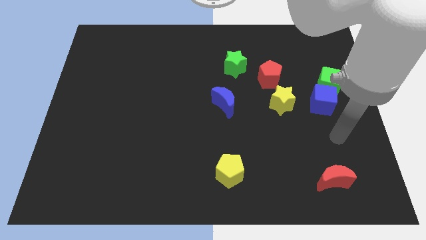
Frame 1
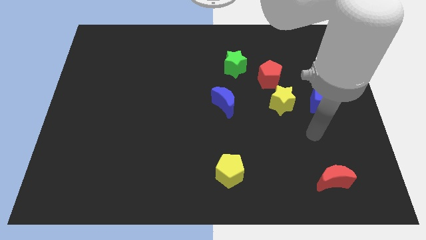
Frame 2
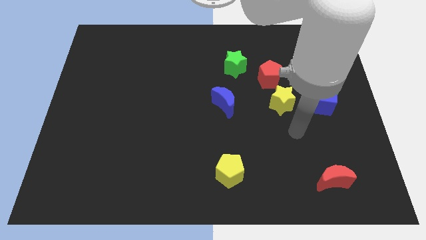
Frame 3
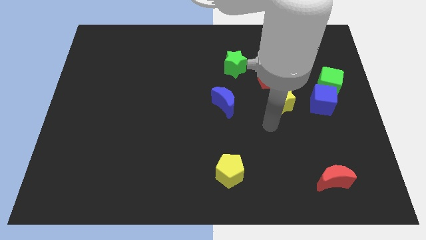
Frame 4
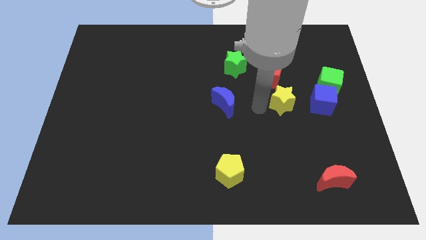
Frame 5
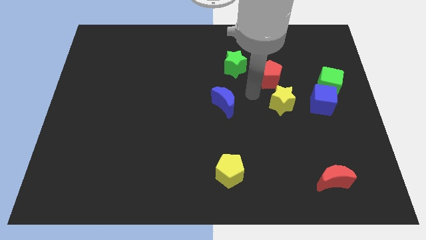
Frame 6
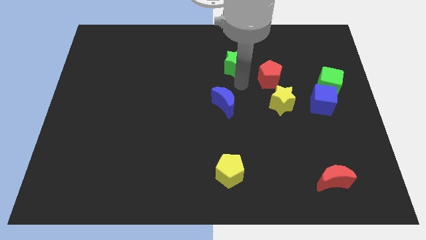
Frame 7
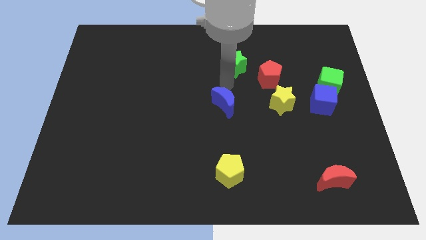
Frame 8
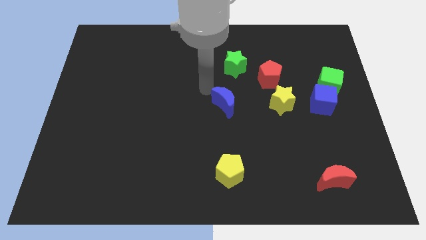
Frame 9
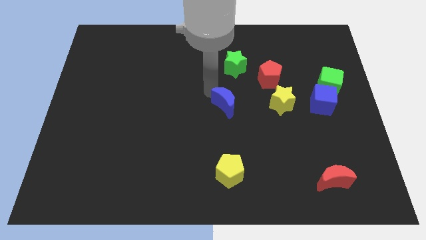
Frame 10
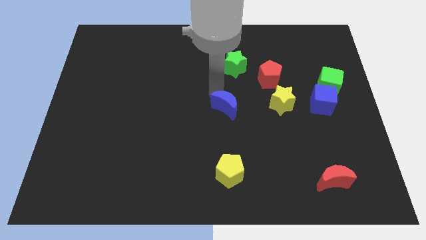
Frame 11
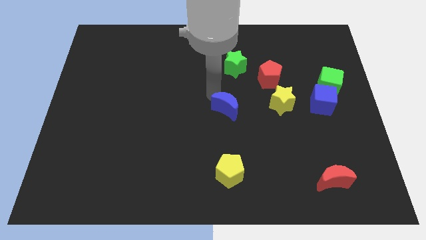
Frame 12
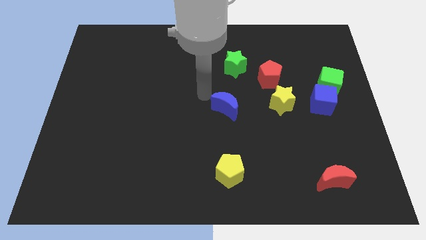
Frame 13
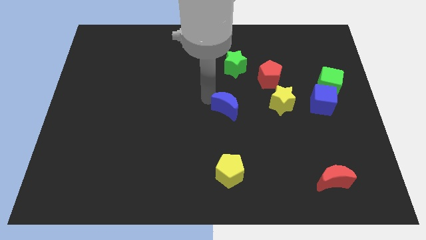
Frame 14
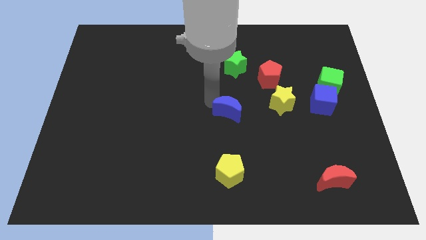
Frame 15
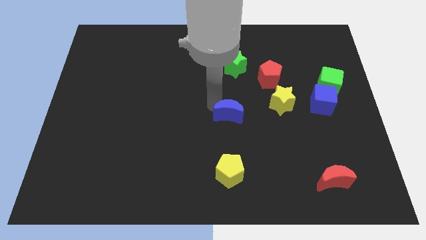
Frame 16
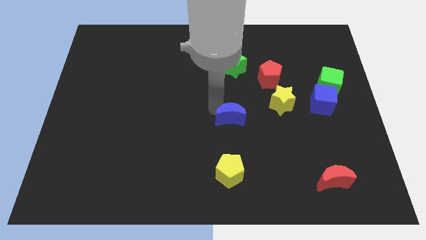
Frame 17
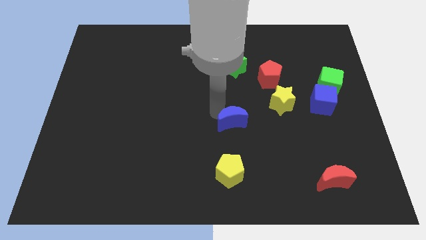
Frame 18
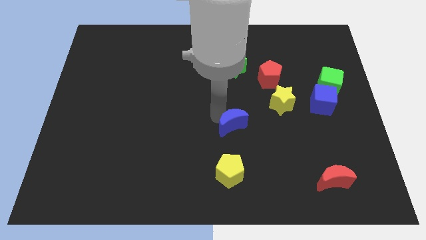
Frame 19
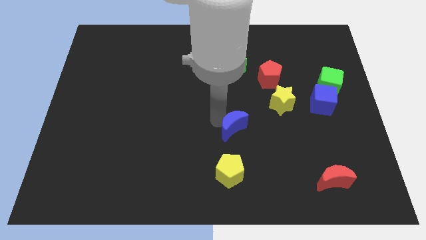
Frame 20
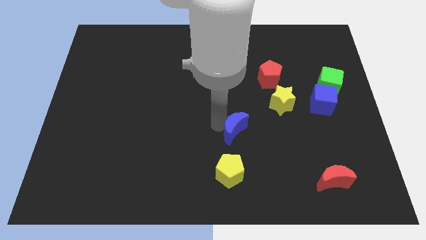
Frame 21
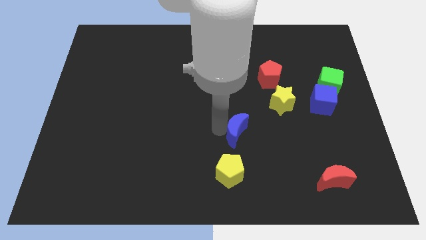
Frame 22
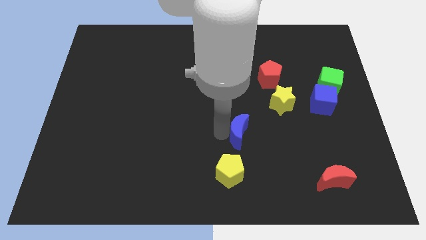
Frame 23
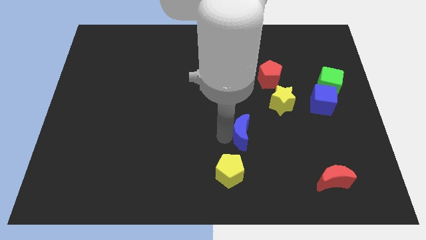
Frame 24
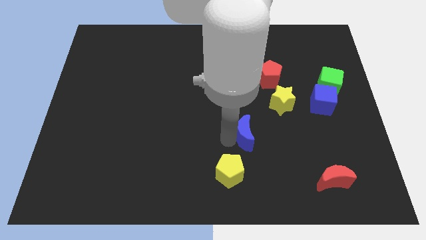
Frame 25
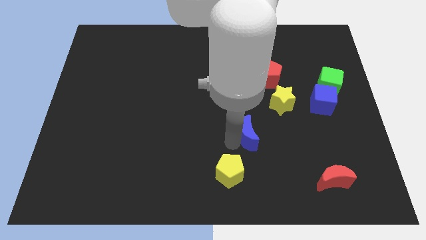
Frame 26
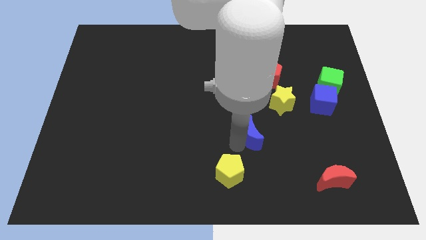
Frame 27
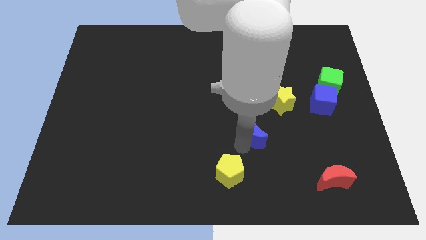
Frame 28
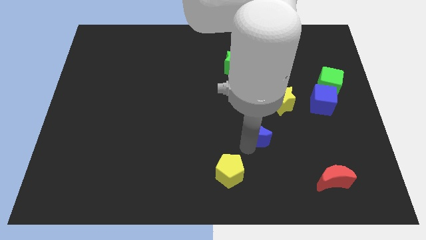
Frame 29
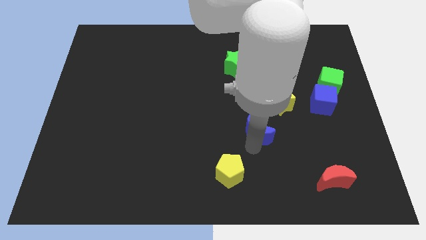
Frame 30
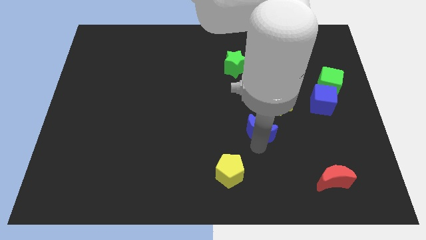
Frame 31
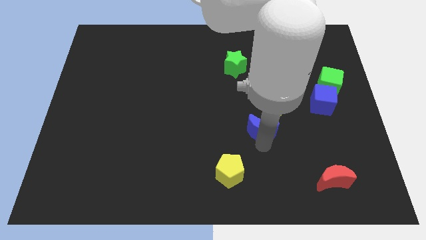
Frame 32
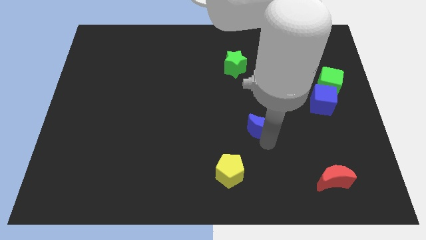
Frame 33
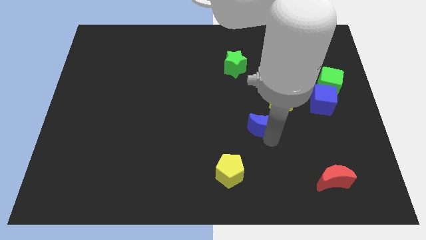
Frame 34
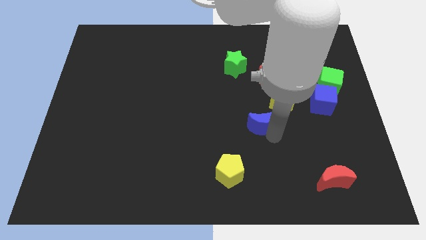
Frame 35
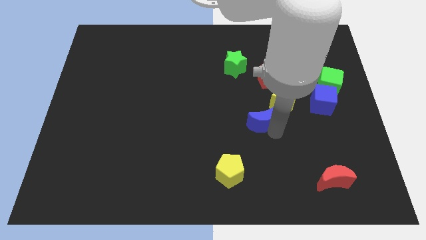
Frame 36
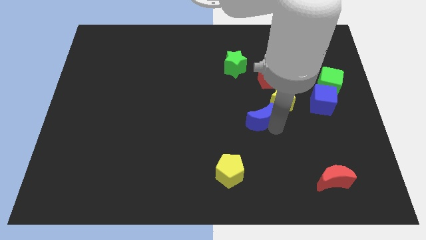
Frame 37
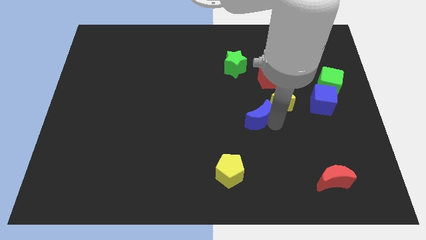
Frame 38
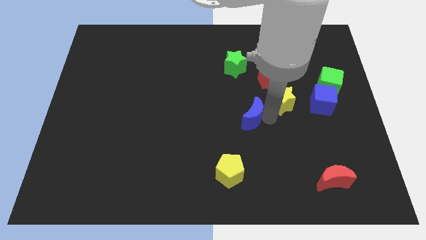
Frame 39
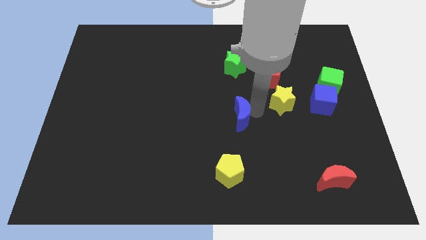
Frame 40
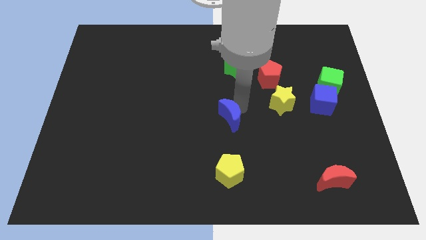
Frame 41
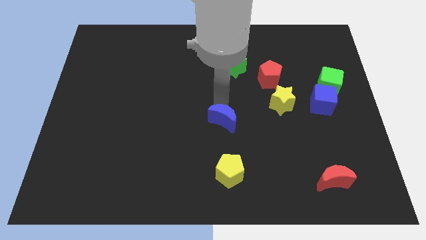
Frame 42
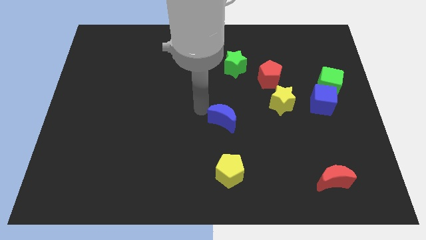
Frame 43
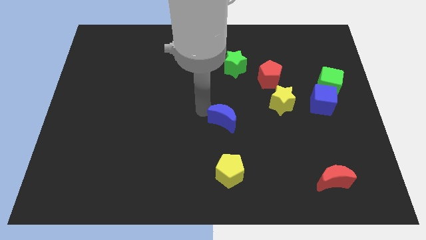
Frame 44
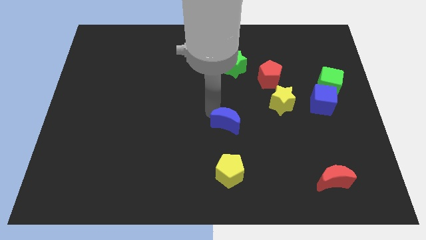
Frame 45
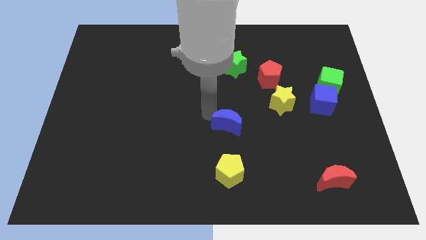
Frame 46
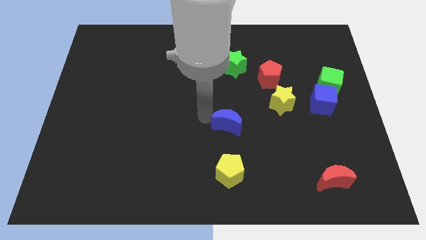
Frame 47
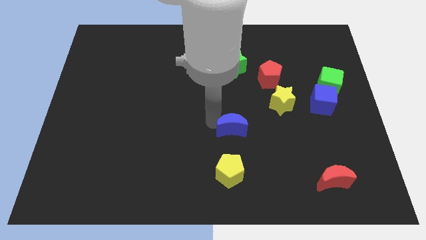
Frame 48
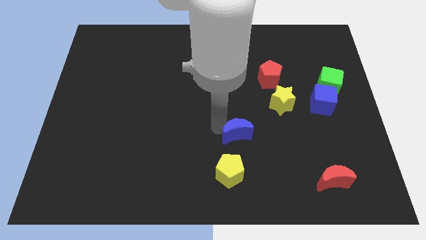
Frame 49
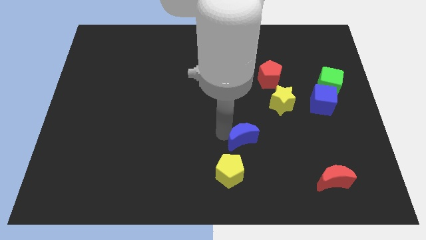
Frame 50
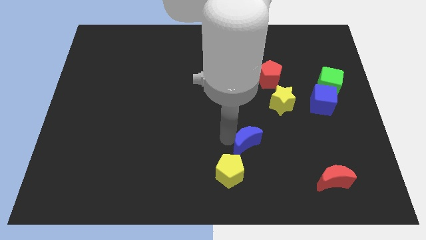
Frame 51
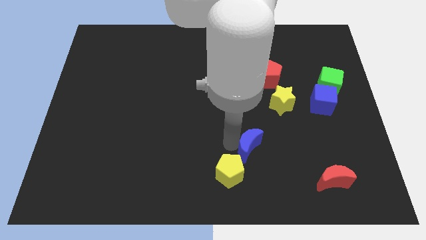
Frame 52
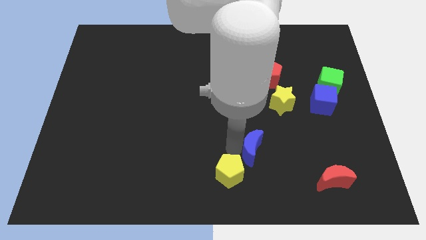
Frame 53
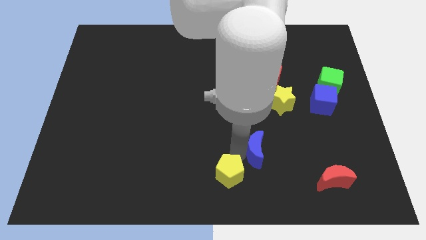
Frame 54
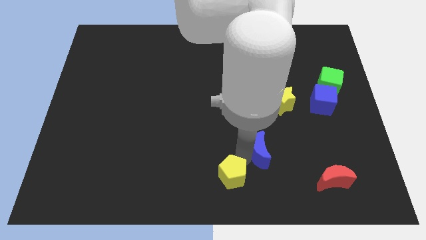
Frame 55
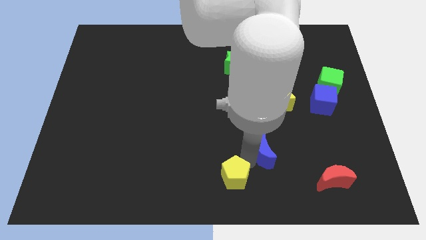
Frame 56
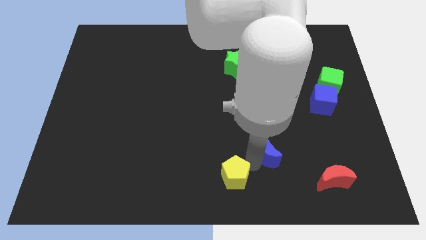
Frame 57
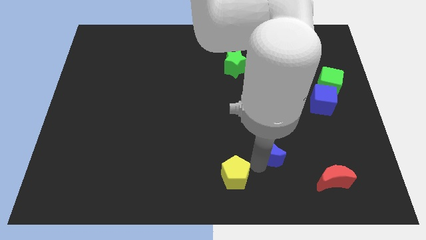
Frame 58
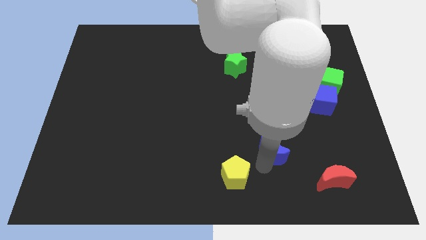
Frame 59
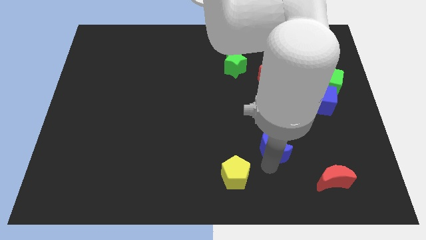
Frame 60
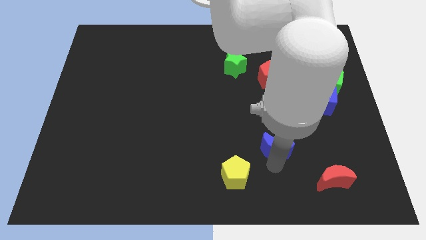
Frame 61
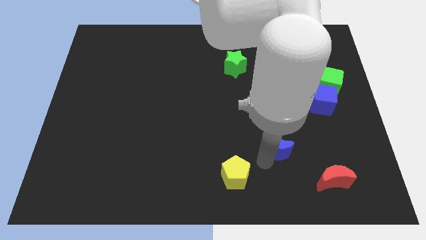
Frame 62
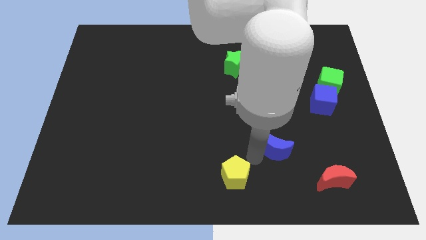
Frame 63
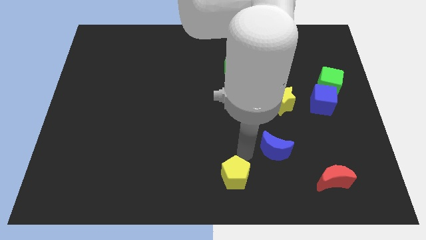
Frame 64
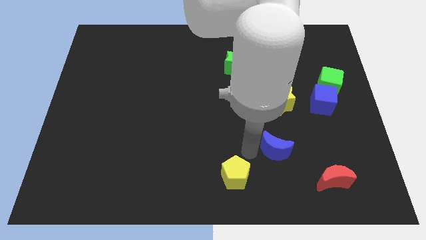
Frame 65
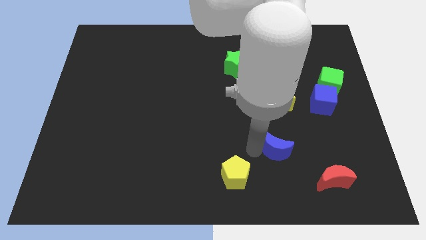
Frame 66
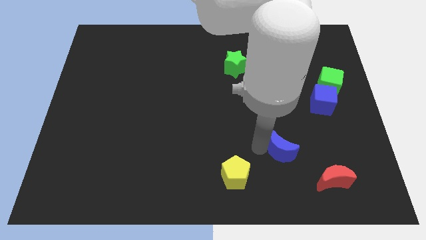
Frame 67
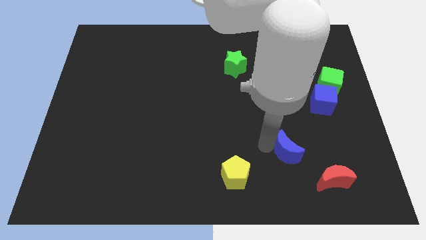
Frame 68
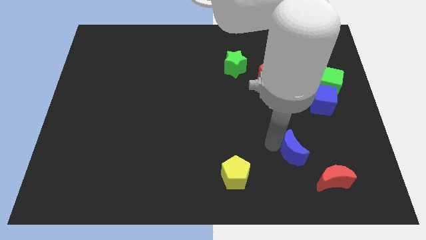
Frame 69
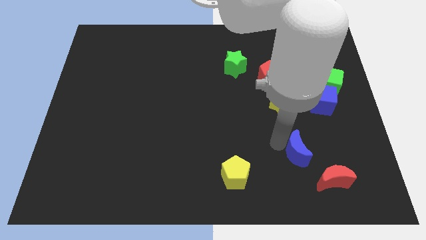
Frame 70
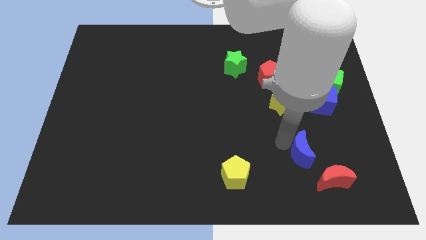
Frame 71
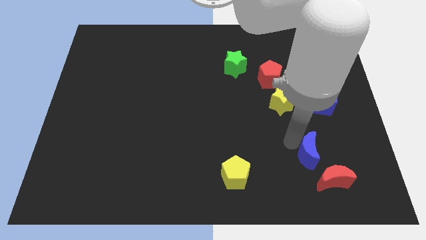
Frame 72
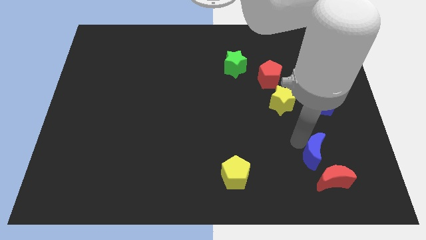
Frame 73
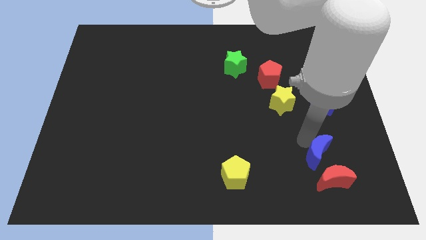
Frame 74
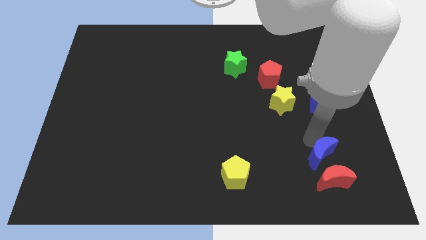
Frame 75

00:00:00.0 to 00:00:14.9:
slide the blue moon close to the red moon
